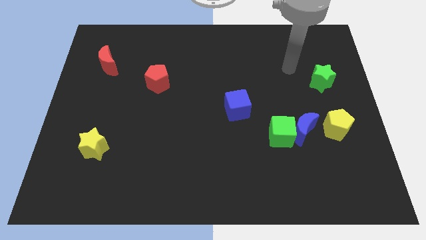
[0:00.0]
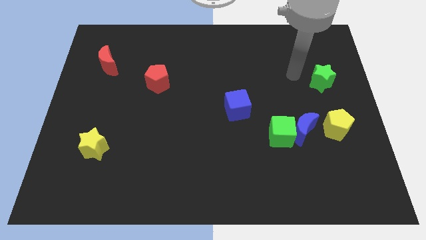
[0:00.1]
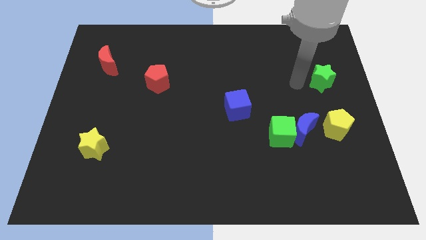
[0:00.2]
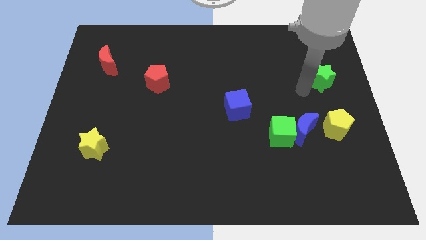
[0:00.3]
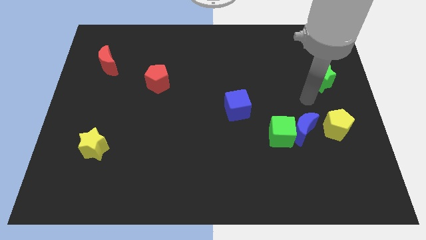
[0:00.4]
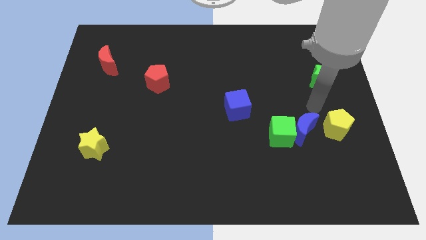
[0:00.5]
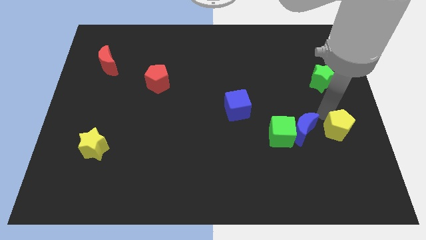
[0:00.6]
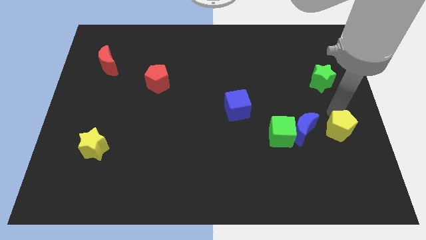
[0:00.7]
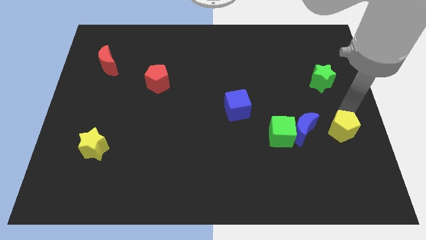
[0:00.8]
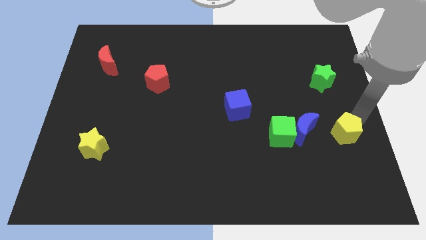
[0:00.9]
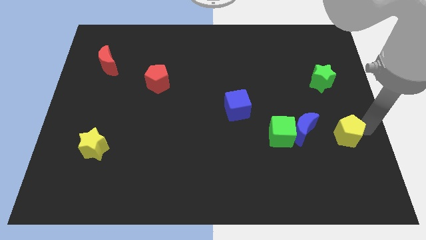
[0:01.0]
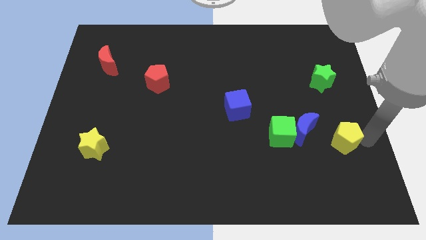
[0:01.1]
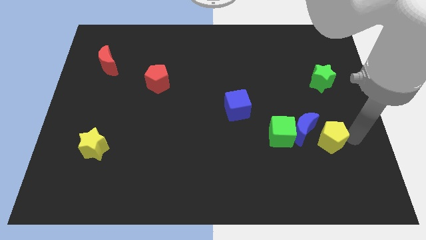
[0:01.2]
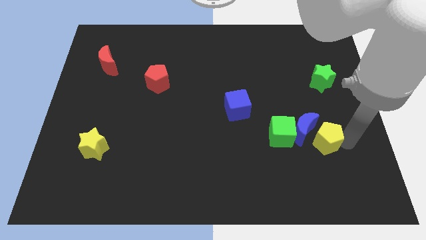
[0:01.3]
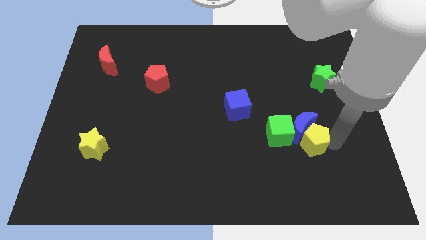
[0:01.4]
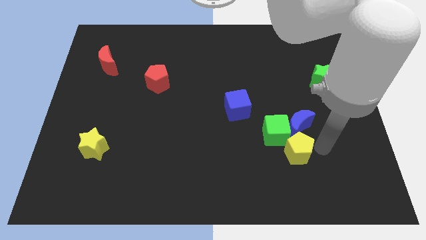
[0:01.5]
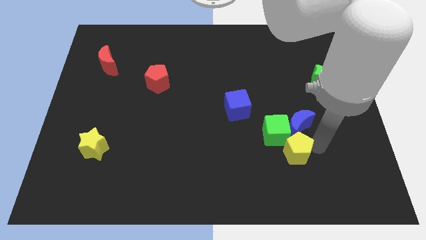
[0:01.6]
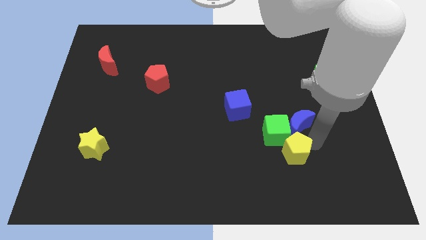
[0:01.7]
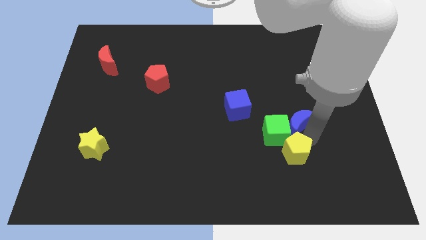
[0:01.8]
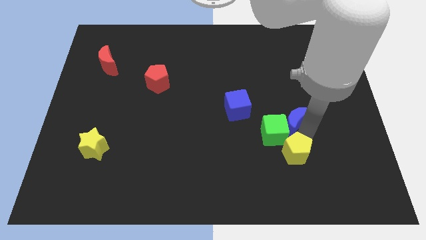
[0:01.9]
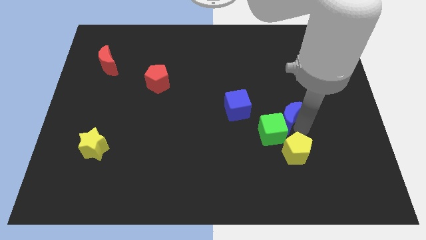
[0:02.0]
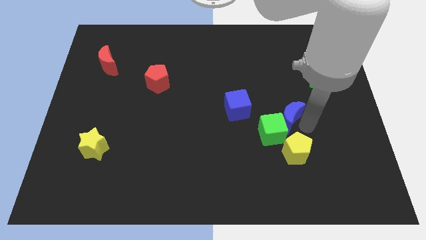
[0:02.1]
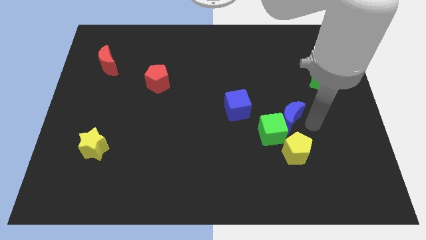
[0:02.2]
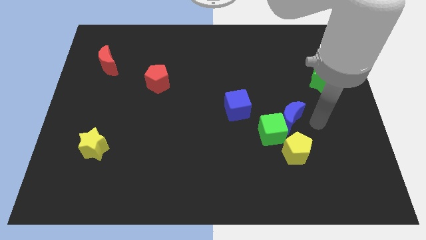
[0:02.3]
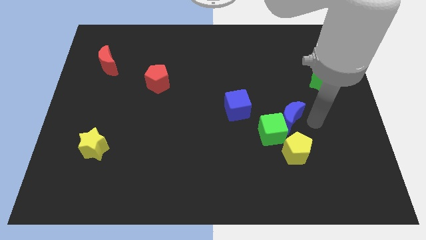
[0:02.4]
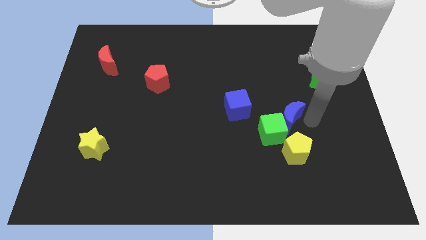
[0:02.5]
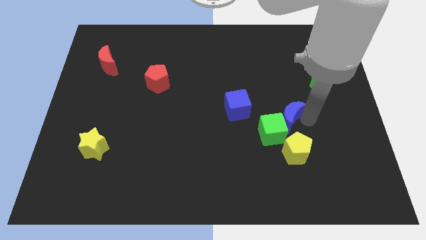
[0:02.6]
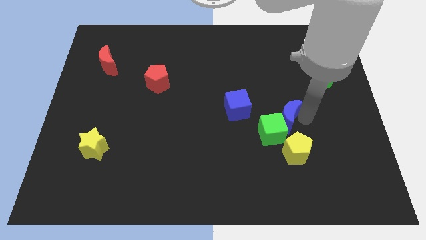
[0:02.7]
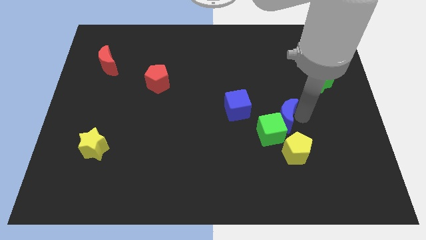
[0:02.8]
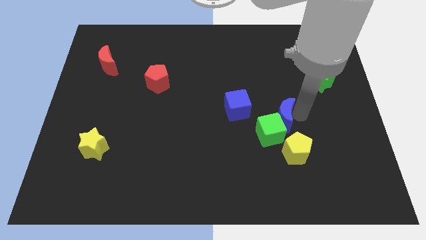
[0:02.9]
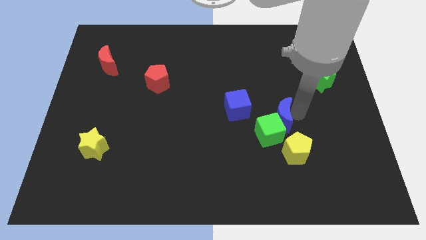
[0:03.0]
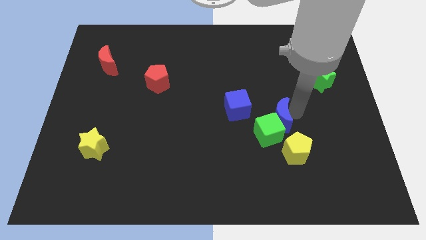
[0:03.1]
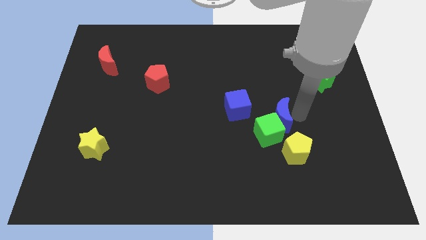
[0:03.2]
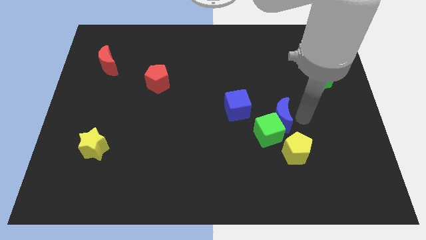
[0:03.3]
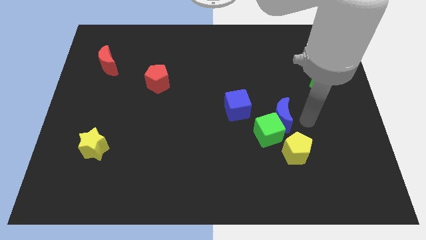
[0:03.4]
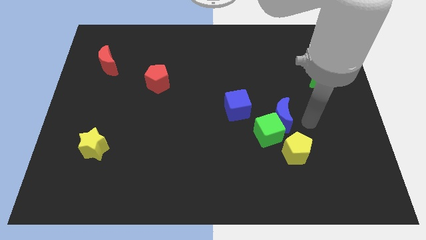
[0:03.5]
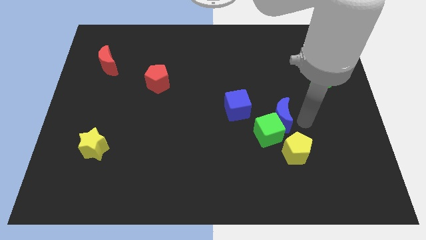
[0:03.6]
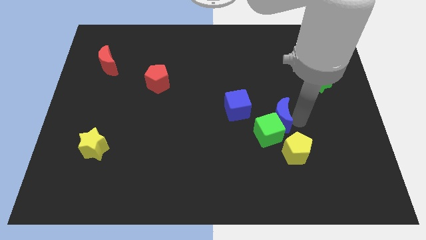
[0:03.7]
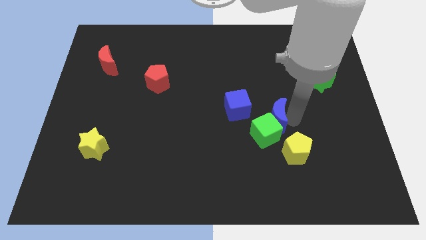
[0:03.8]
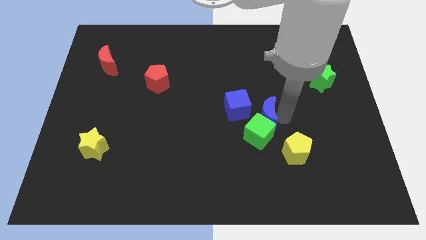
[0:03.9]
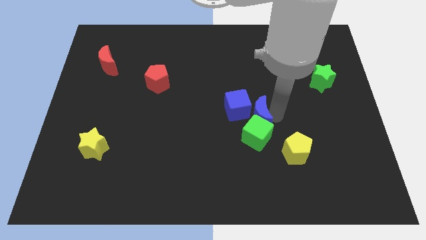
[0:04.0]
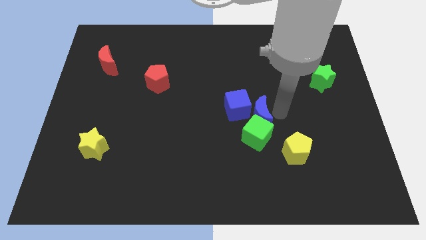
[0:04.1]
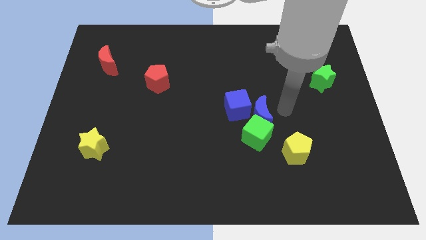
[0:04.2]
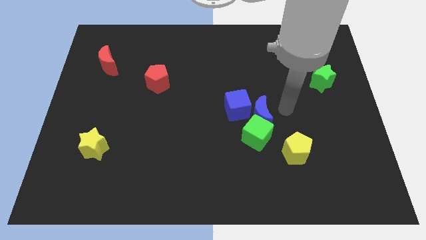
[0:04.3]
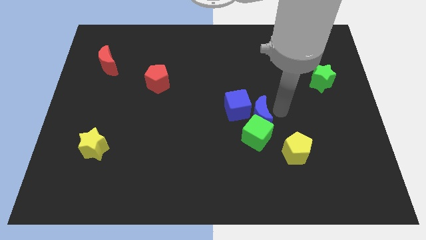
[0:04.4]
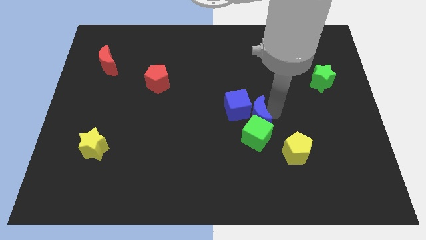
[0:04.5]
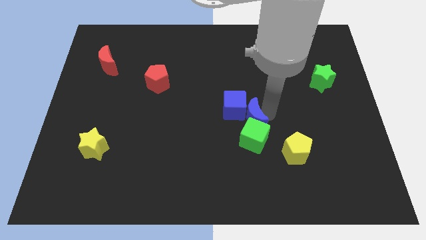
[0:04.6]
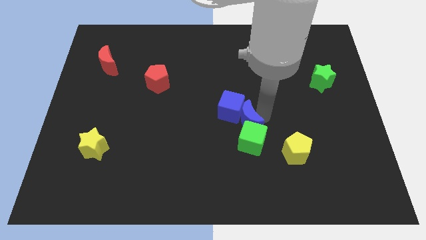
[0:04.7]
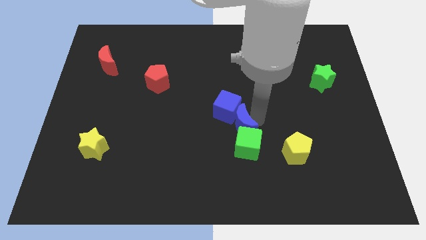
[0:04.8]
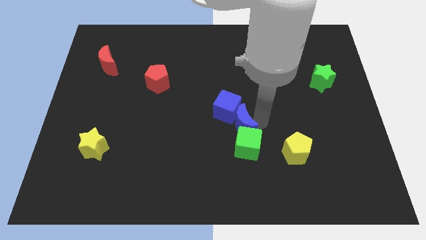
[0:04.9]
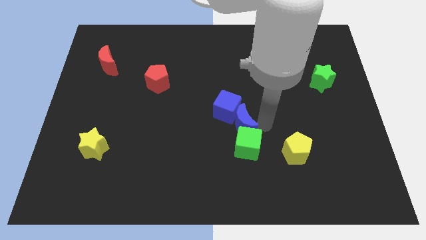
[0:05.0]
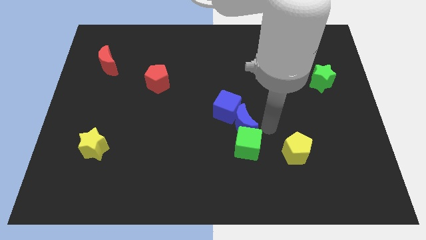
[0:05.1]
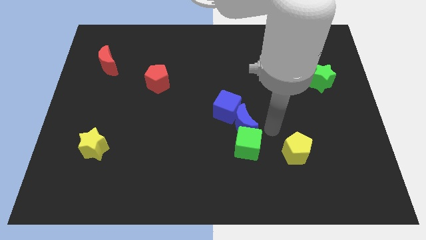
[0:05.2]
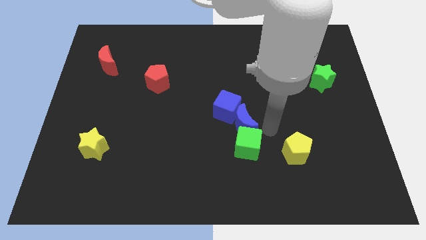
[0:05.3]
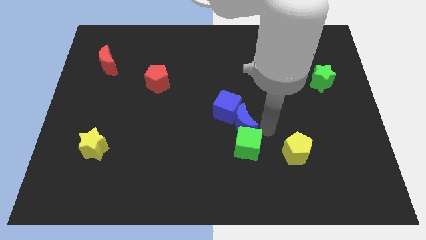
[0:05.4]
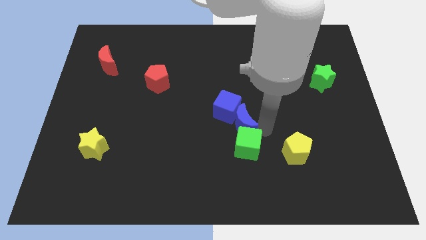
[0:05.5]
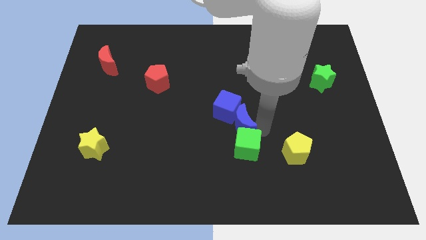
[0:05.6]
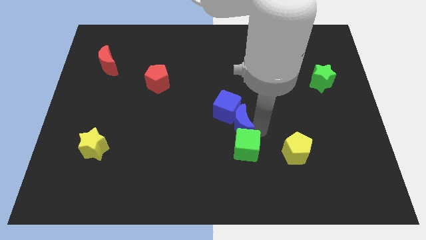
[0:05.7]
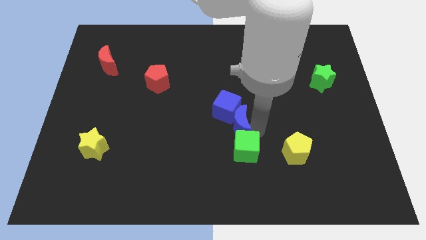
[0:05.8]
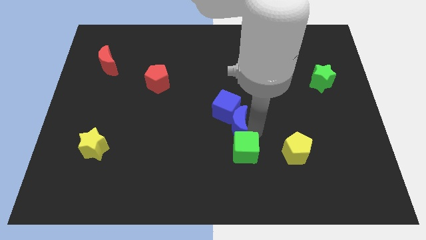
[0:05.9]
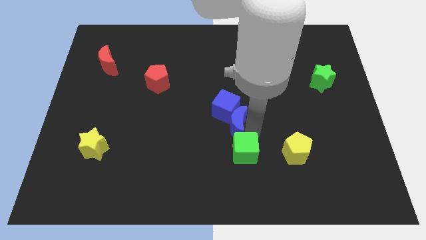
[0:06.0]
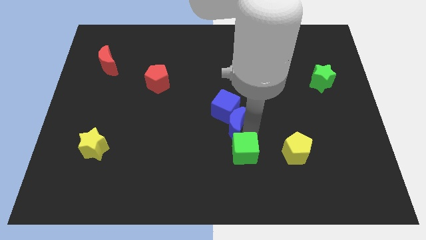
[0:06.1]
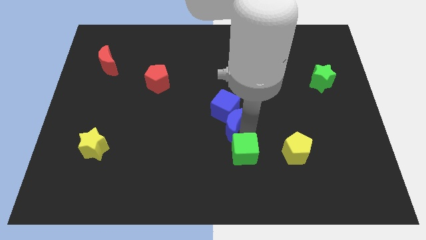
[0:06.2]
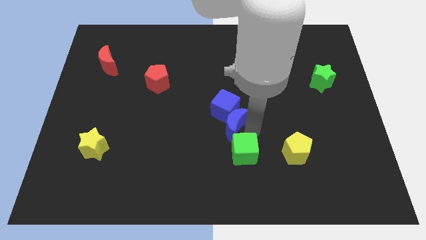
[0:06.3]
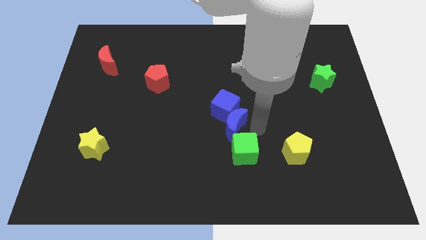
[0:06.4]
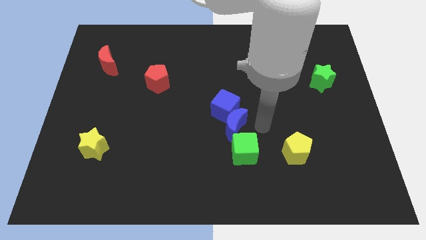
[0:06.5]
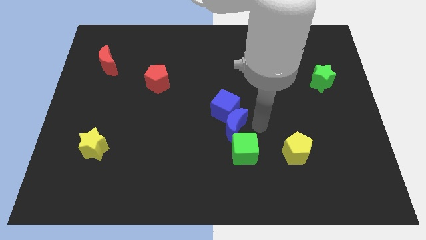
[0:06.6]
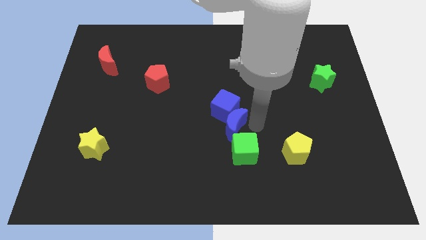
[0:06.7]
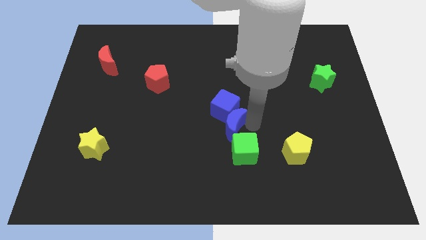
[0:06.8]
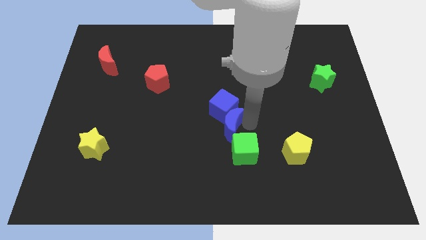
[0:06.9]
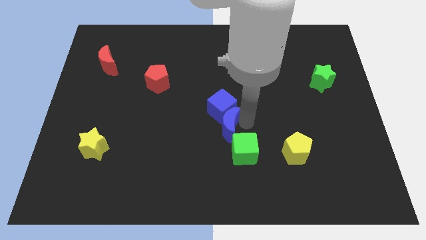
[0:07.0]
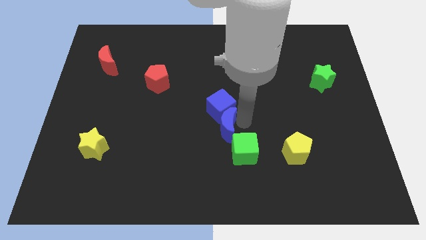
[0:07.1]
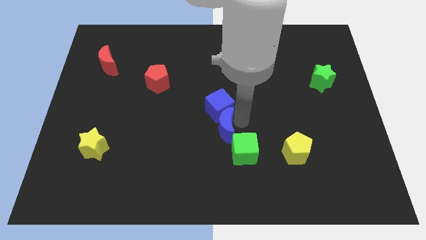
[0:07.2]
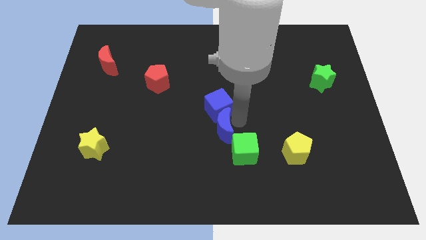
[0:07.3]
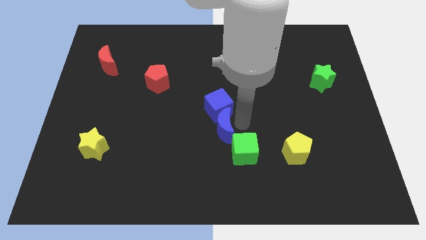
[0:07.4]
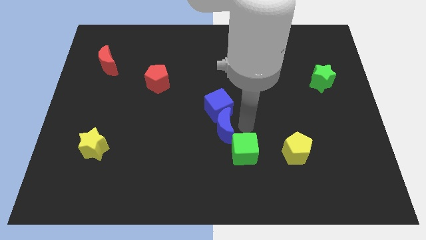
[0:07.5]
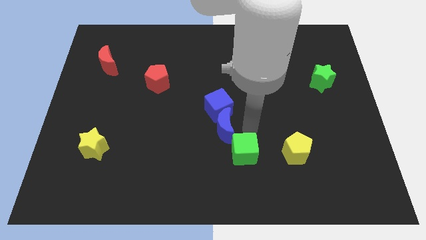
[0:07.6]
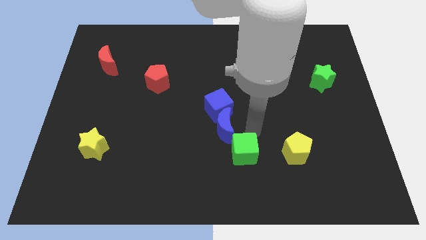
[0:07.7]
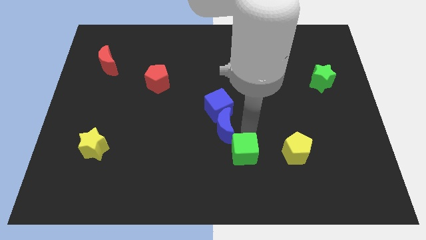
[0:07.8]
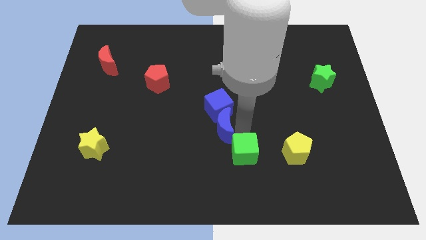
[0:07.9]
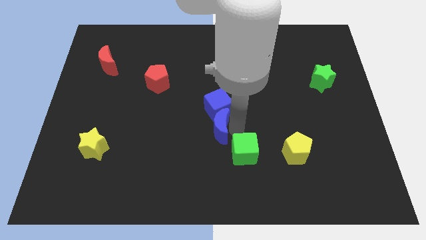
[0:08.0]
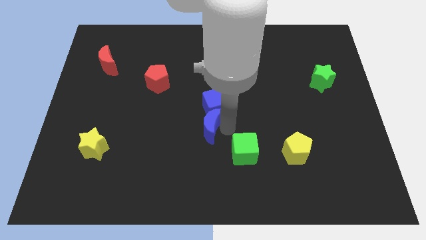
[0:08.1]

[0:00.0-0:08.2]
push the blue moon left
